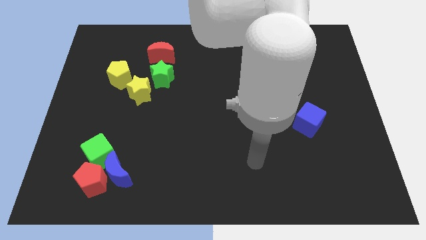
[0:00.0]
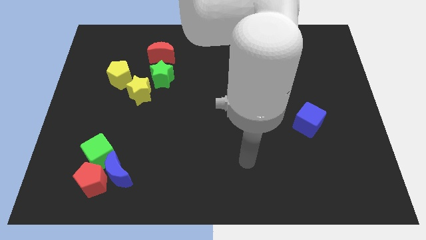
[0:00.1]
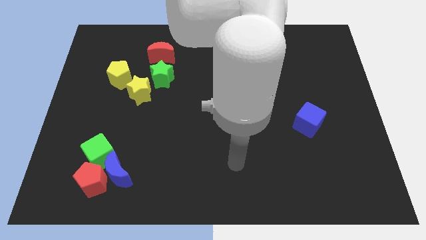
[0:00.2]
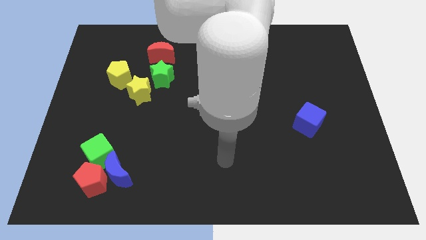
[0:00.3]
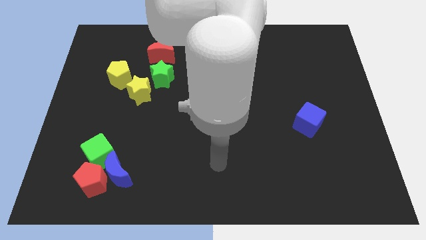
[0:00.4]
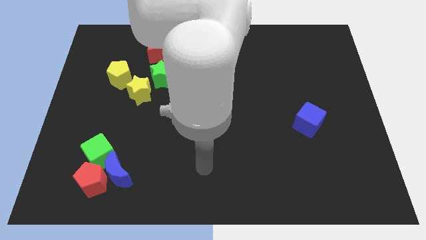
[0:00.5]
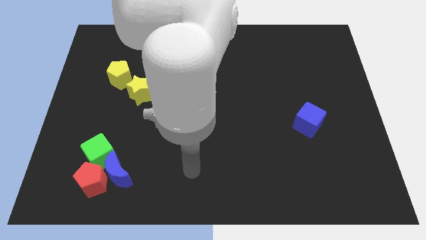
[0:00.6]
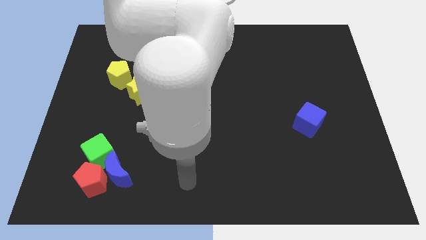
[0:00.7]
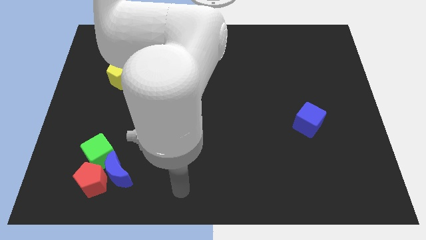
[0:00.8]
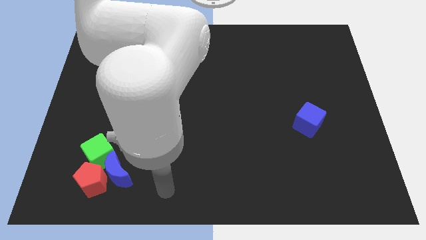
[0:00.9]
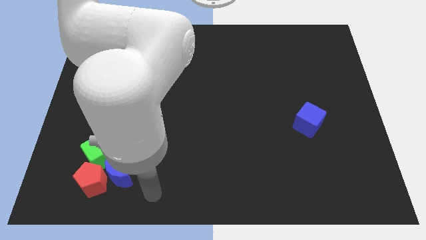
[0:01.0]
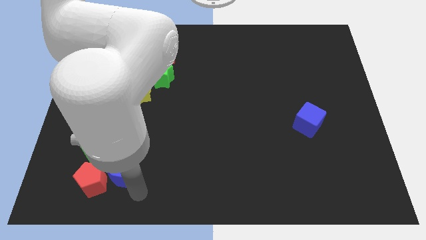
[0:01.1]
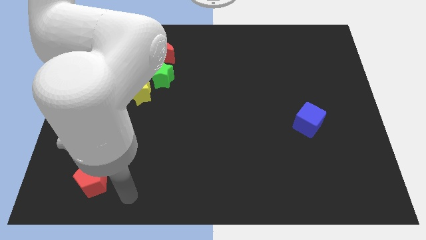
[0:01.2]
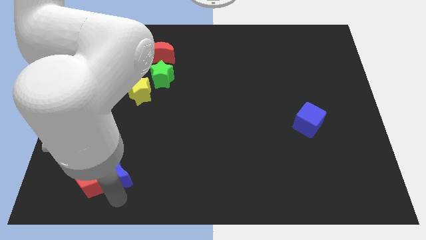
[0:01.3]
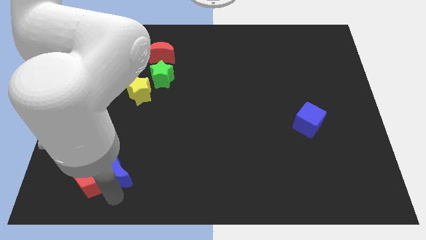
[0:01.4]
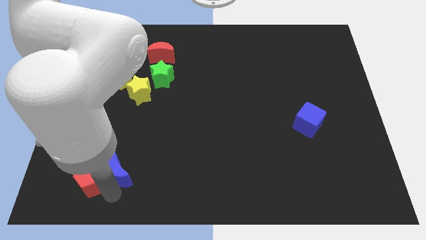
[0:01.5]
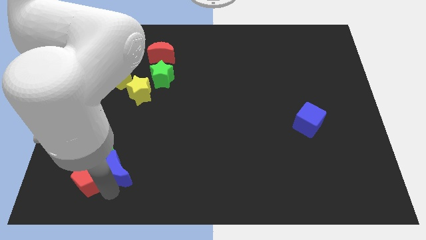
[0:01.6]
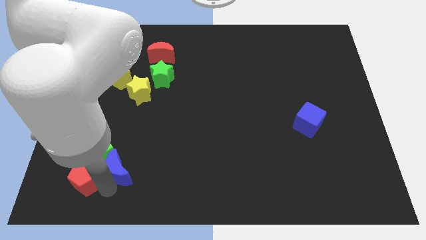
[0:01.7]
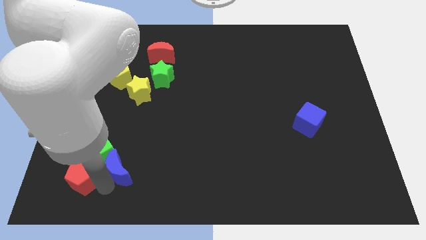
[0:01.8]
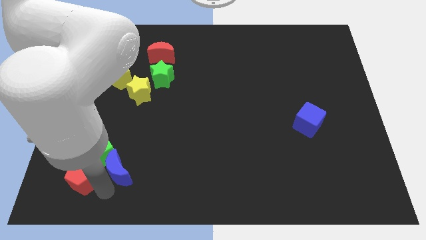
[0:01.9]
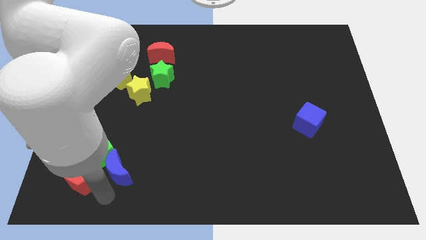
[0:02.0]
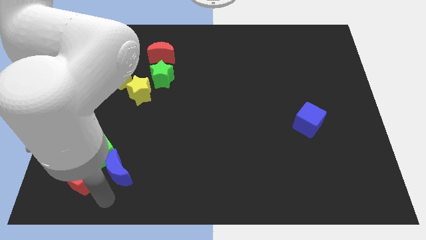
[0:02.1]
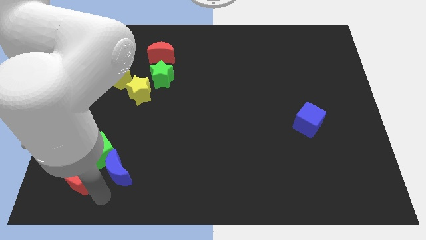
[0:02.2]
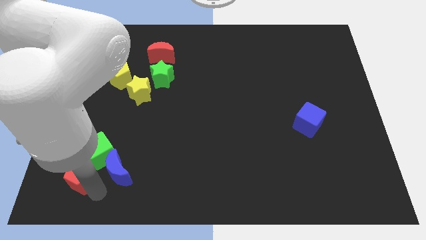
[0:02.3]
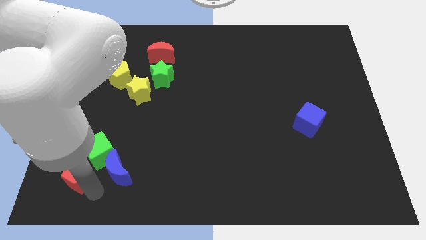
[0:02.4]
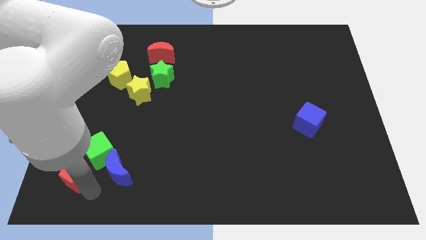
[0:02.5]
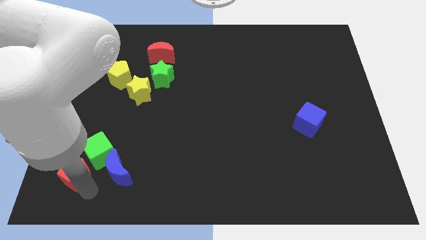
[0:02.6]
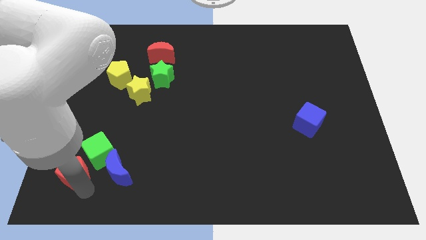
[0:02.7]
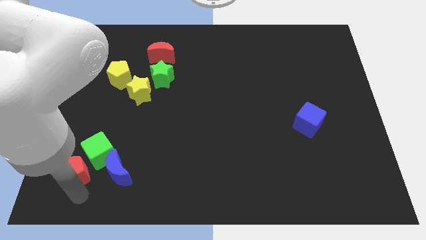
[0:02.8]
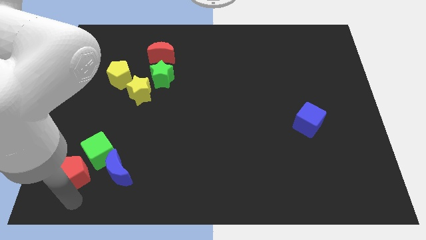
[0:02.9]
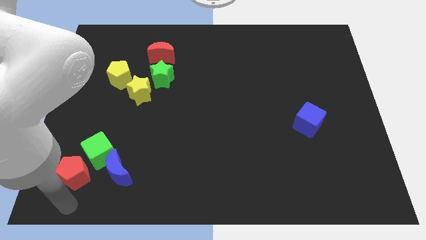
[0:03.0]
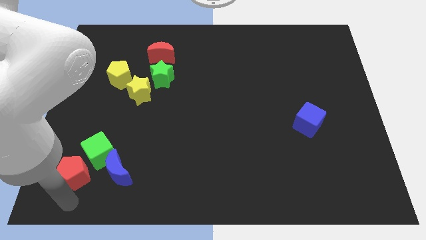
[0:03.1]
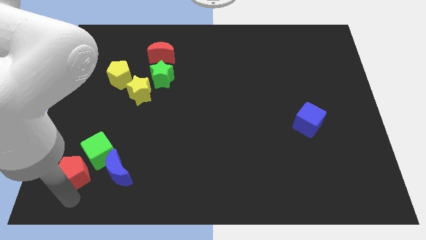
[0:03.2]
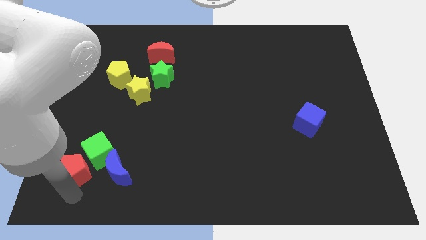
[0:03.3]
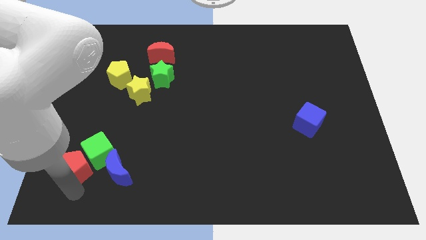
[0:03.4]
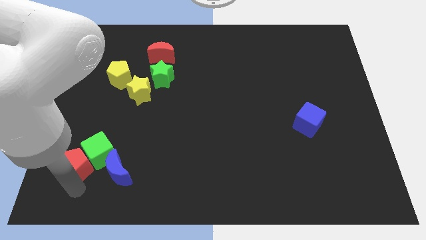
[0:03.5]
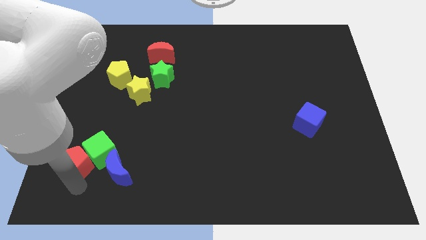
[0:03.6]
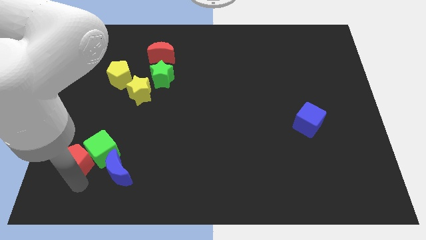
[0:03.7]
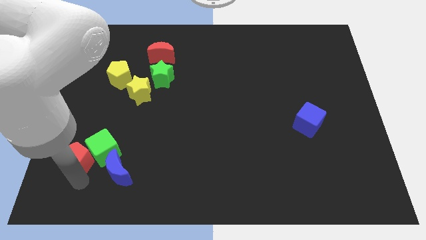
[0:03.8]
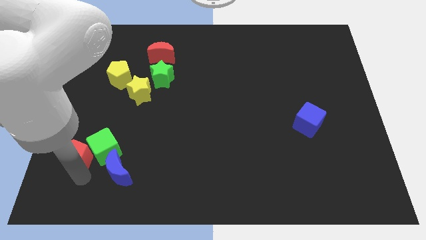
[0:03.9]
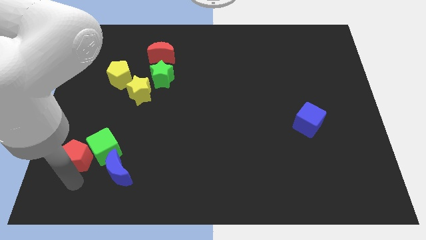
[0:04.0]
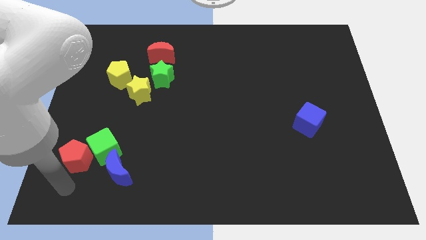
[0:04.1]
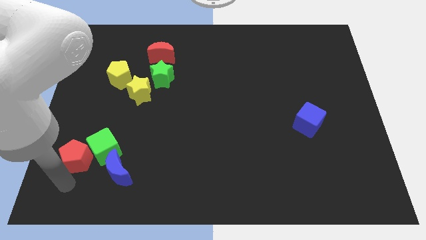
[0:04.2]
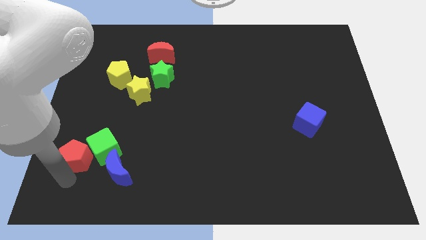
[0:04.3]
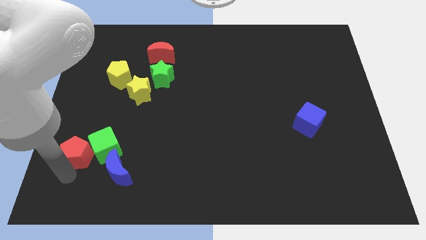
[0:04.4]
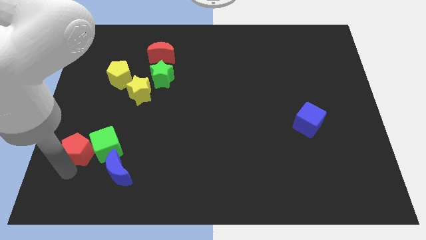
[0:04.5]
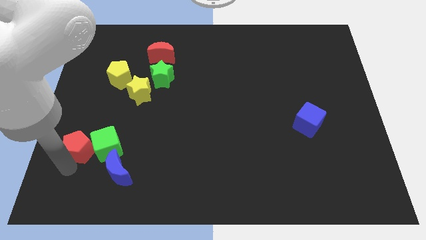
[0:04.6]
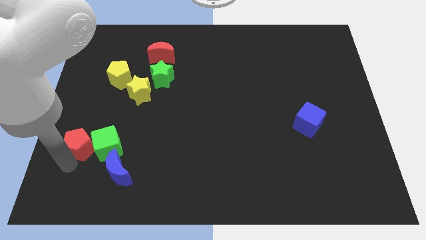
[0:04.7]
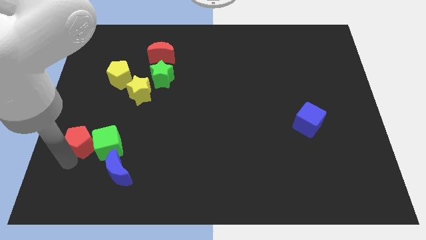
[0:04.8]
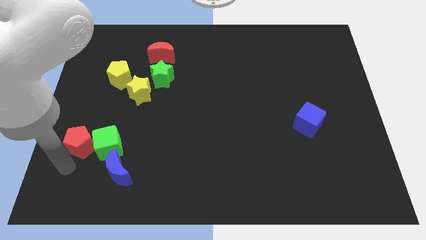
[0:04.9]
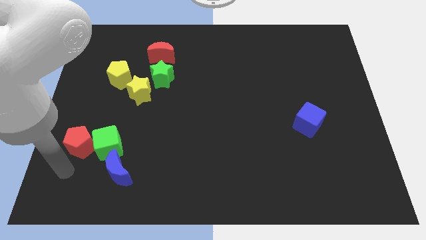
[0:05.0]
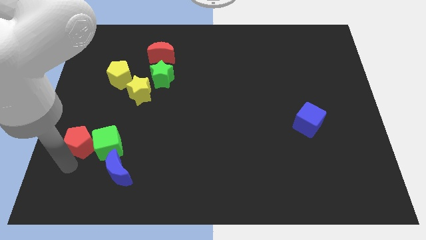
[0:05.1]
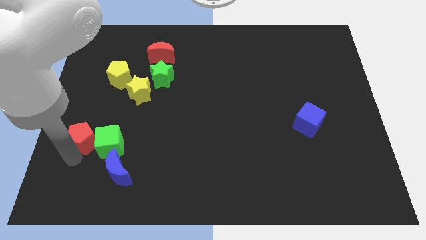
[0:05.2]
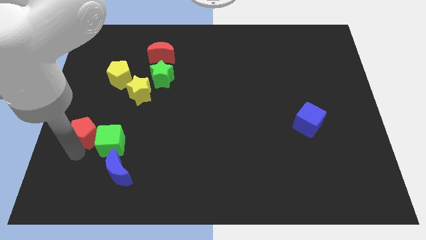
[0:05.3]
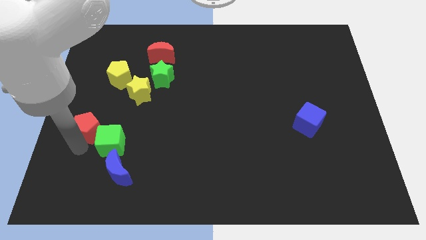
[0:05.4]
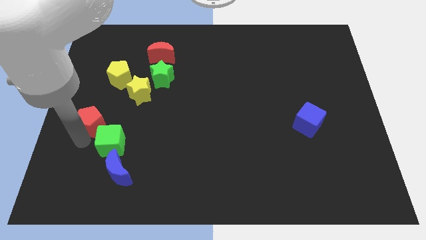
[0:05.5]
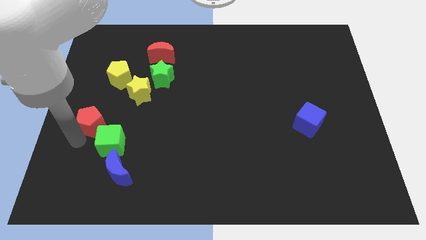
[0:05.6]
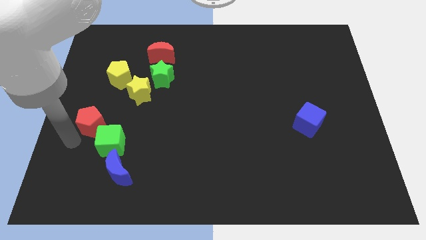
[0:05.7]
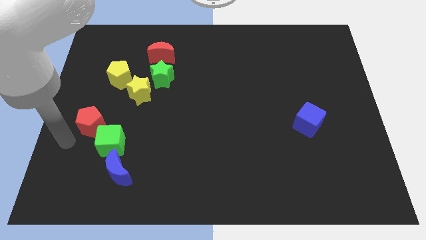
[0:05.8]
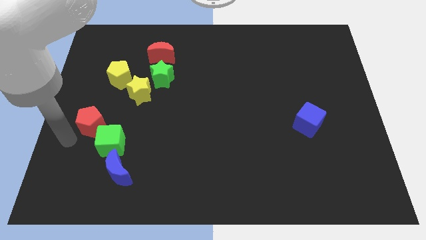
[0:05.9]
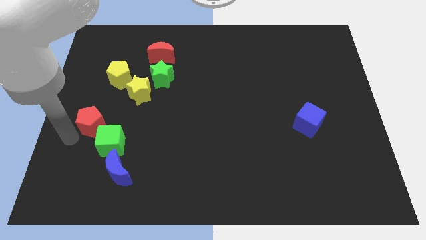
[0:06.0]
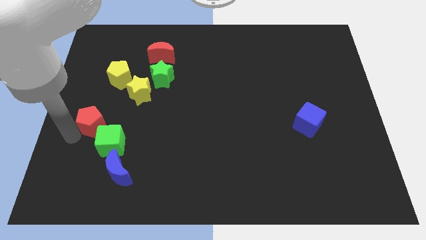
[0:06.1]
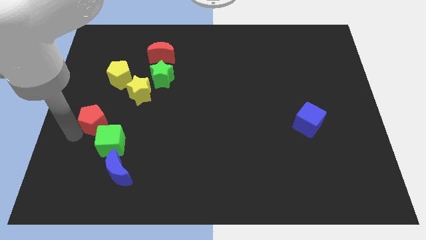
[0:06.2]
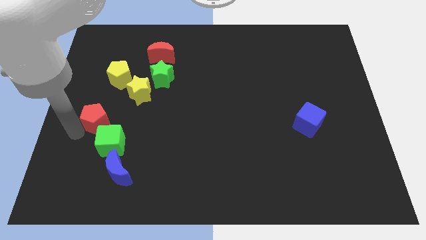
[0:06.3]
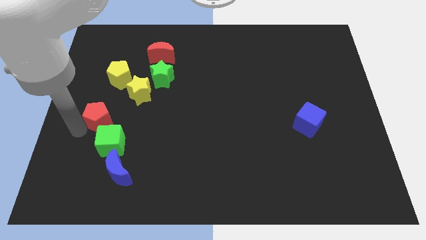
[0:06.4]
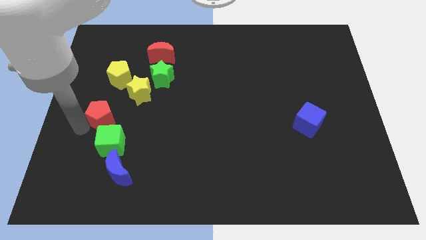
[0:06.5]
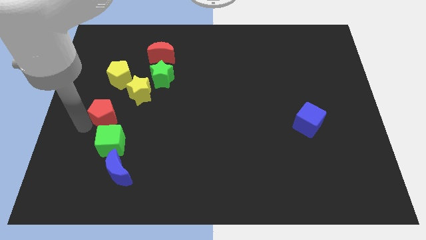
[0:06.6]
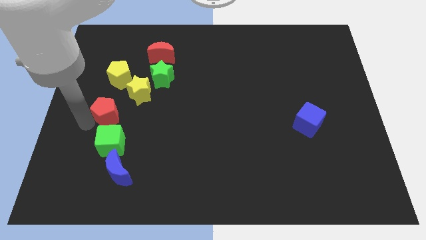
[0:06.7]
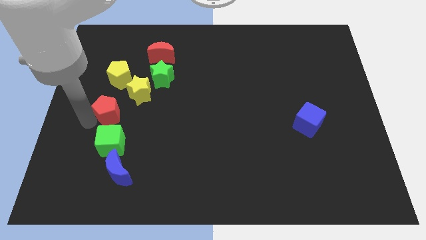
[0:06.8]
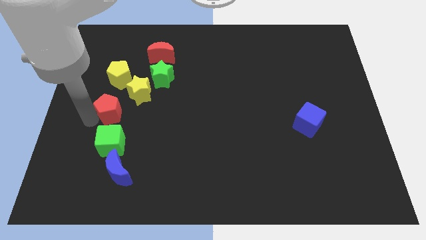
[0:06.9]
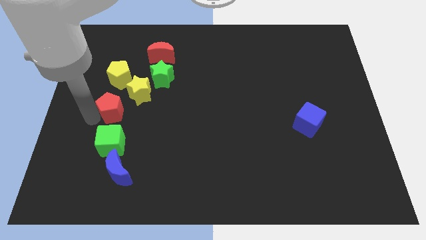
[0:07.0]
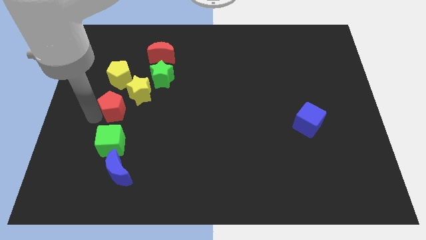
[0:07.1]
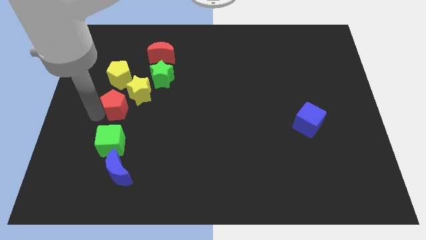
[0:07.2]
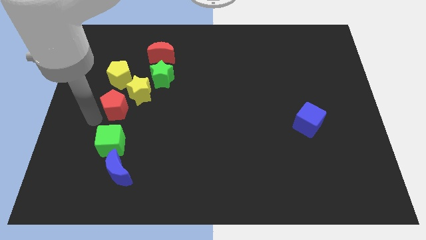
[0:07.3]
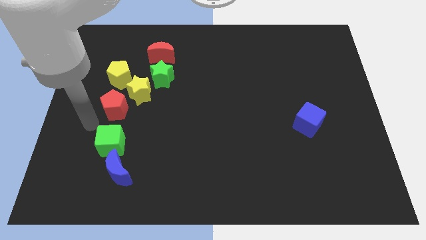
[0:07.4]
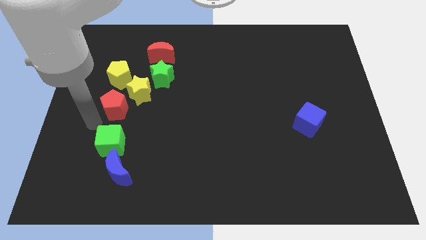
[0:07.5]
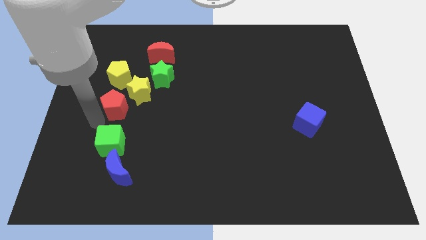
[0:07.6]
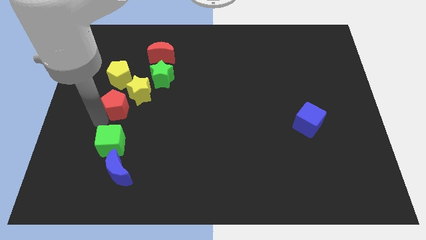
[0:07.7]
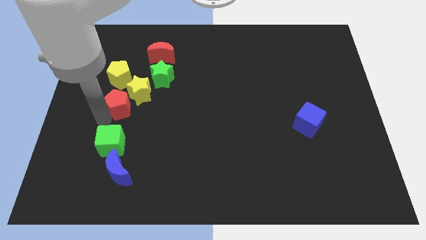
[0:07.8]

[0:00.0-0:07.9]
slide the red pentagon next to the yellow star
